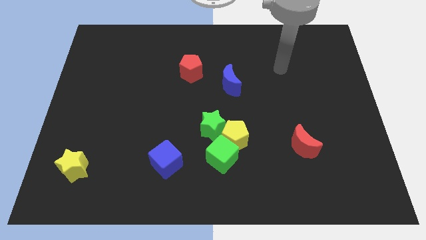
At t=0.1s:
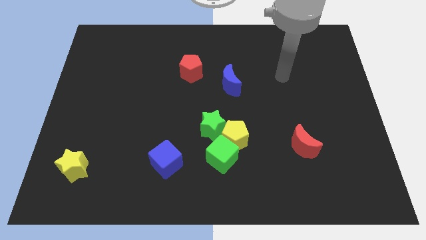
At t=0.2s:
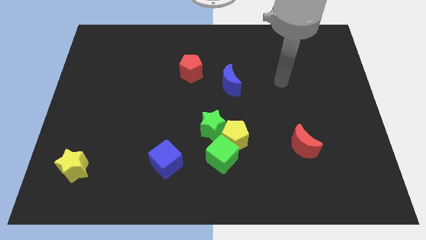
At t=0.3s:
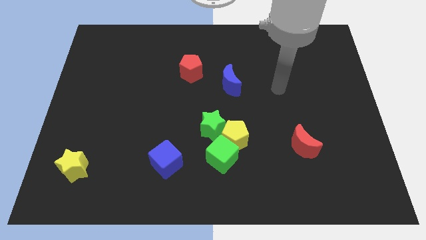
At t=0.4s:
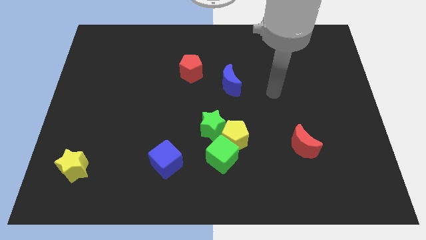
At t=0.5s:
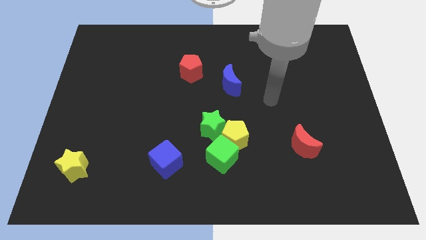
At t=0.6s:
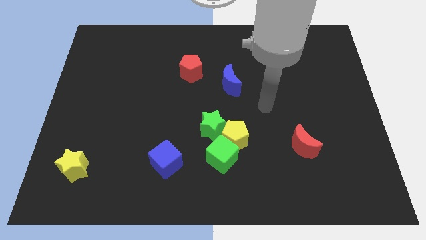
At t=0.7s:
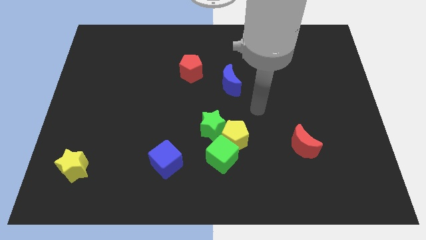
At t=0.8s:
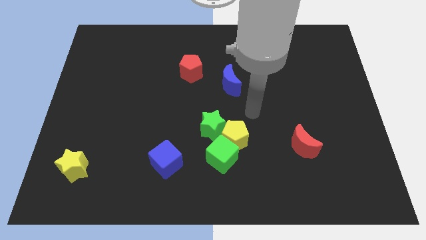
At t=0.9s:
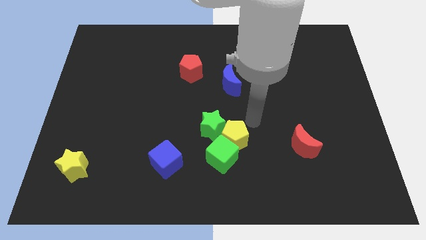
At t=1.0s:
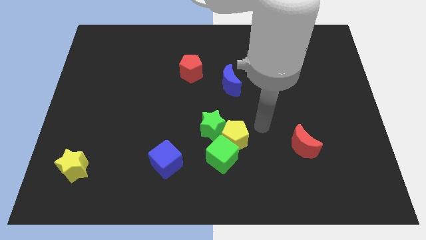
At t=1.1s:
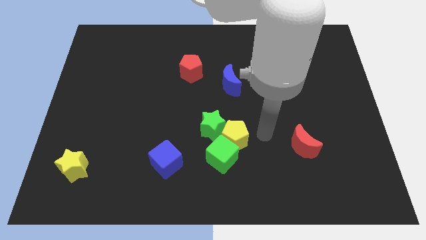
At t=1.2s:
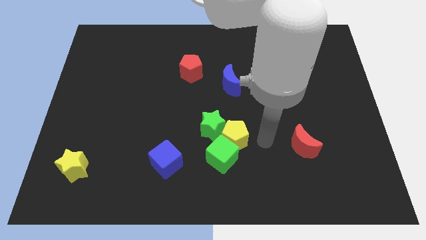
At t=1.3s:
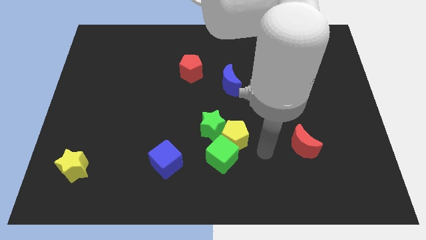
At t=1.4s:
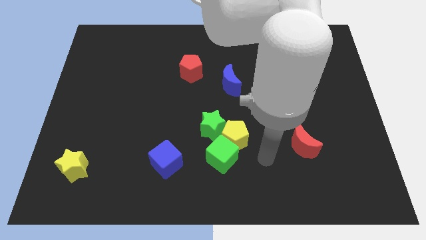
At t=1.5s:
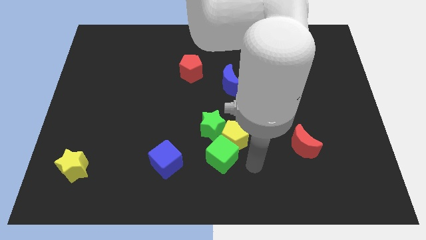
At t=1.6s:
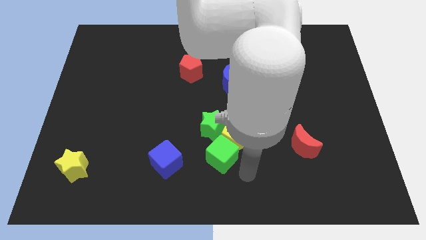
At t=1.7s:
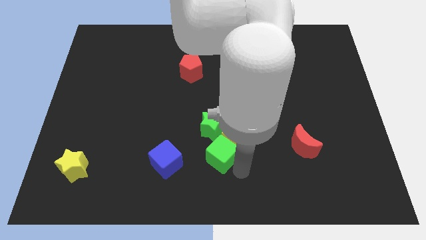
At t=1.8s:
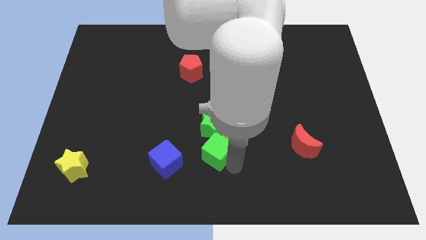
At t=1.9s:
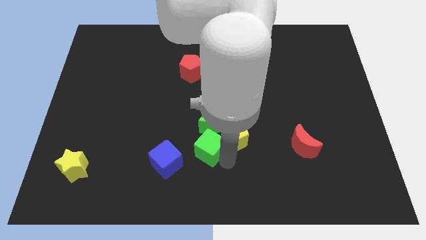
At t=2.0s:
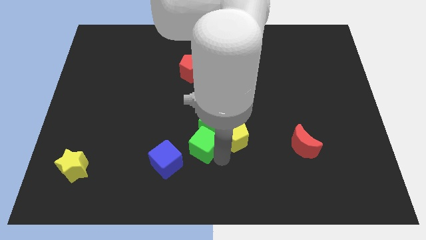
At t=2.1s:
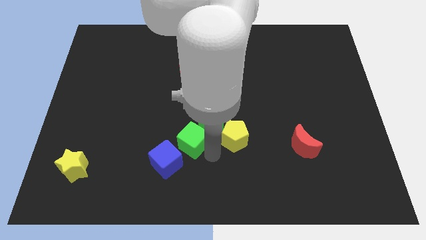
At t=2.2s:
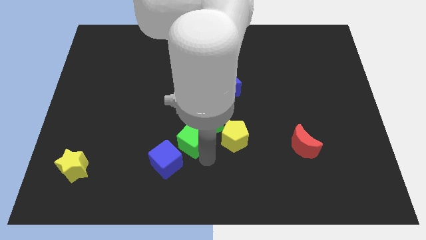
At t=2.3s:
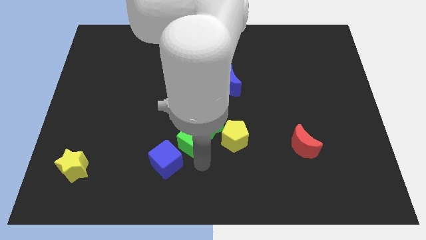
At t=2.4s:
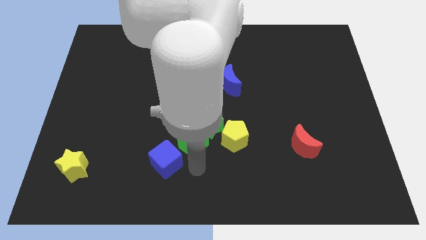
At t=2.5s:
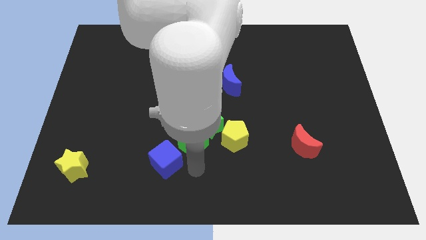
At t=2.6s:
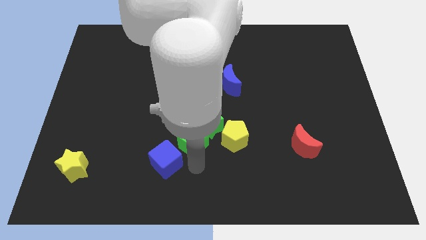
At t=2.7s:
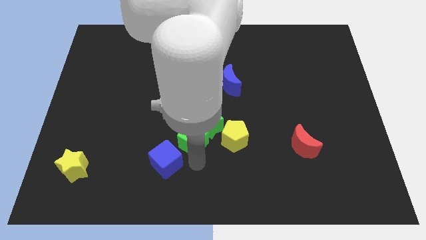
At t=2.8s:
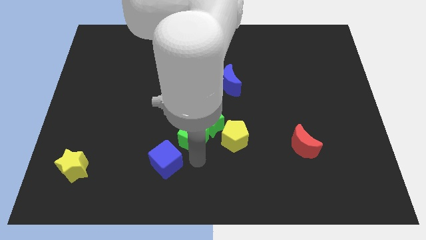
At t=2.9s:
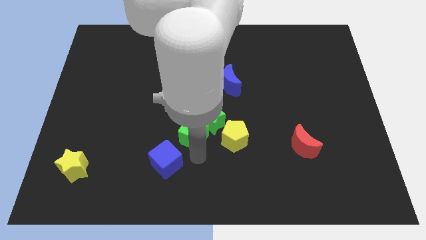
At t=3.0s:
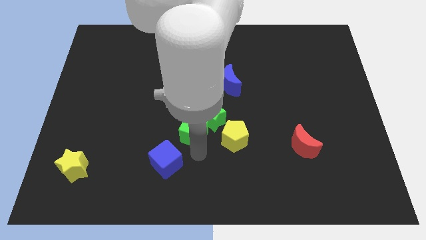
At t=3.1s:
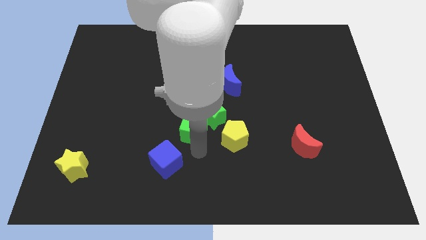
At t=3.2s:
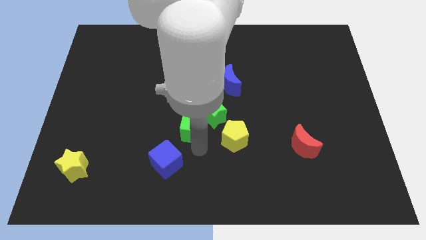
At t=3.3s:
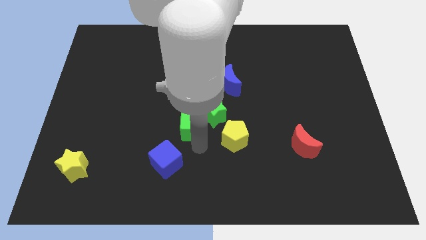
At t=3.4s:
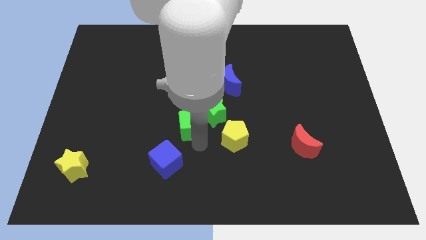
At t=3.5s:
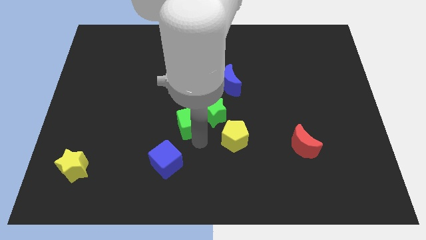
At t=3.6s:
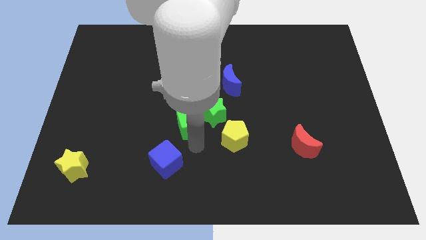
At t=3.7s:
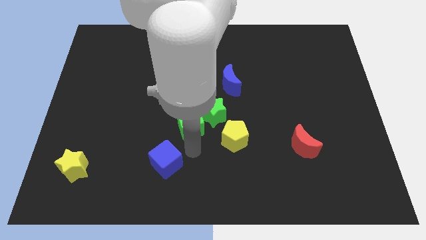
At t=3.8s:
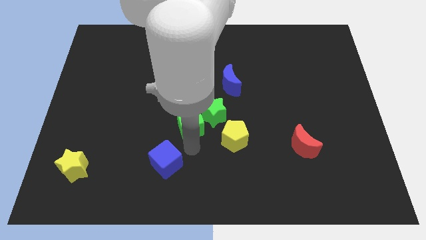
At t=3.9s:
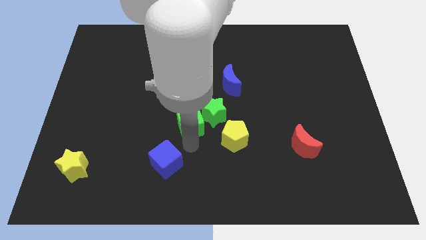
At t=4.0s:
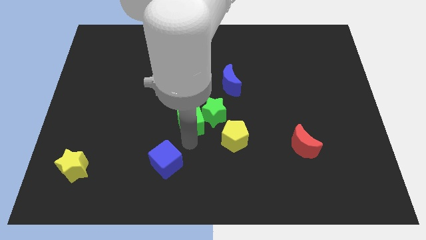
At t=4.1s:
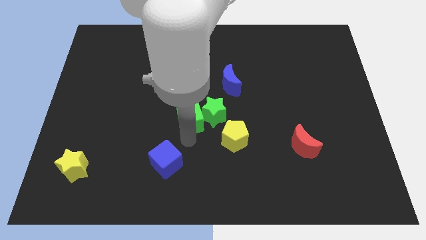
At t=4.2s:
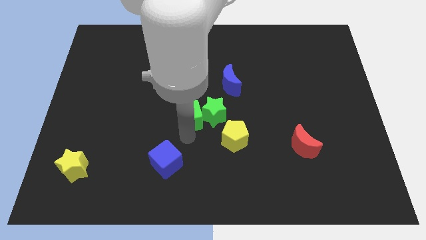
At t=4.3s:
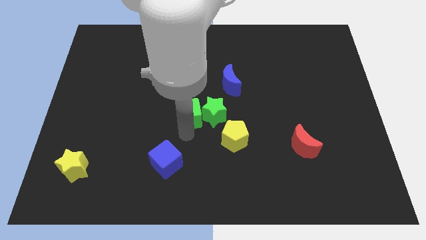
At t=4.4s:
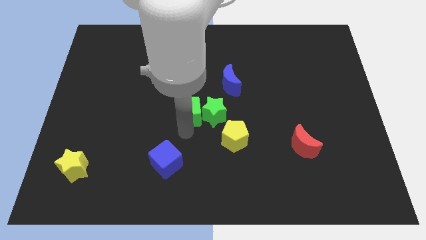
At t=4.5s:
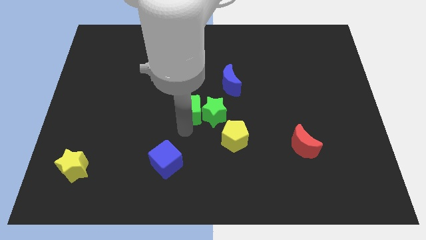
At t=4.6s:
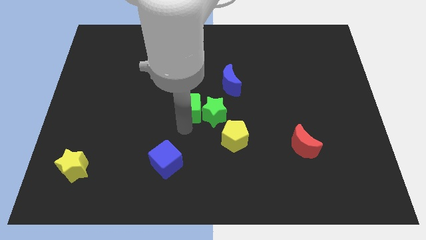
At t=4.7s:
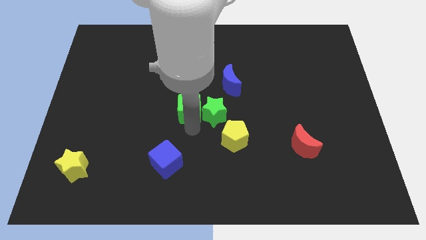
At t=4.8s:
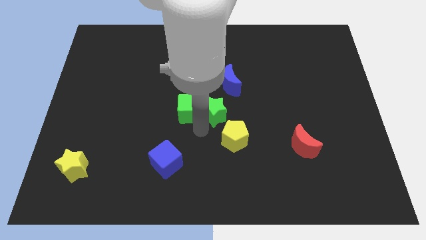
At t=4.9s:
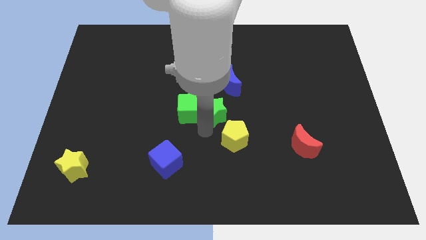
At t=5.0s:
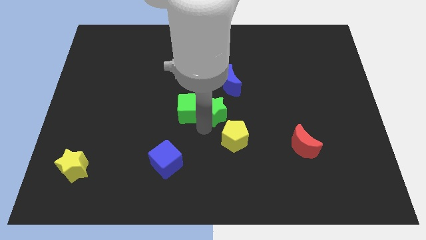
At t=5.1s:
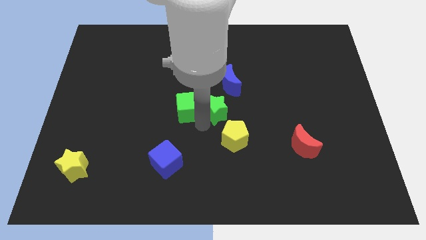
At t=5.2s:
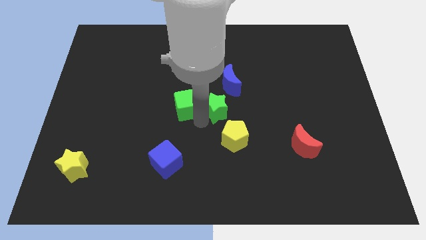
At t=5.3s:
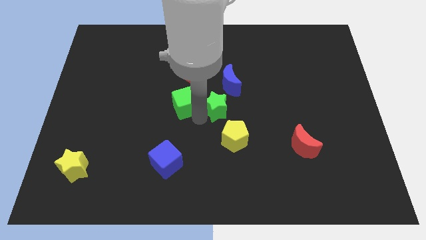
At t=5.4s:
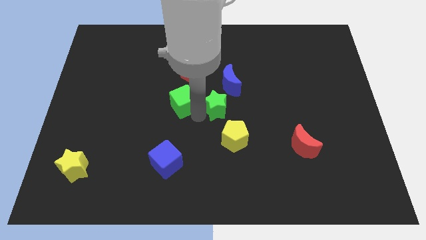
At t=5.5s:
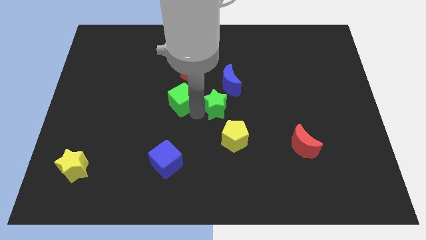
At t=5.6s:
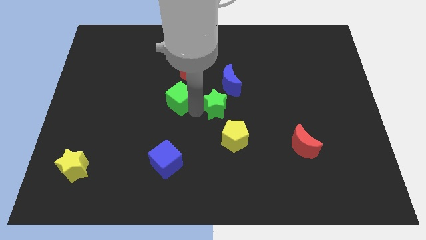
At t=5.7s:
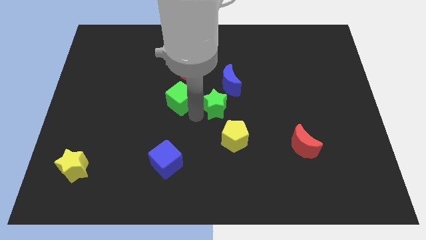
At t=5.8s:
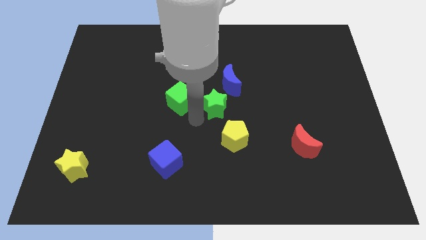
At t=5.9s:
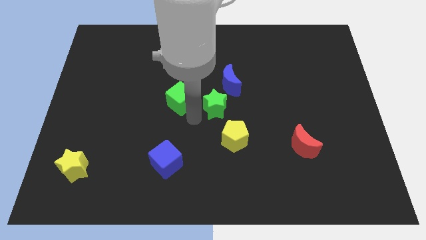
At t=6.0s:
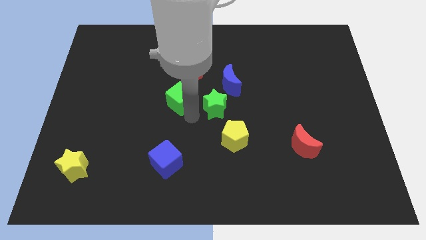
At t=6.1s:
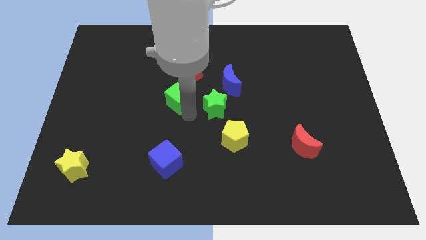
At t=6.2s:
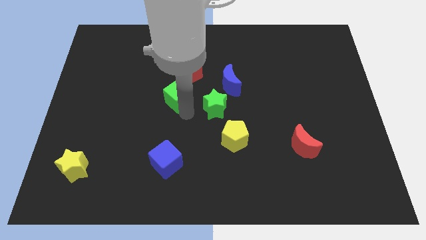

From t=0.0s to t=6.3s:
push the green cube to the bottom left side of the red pentagon

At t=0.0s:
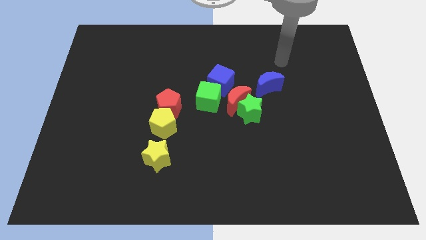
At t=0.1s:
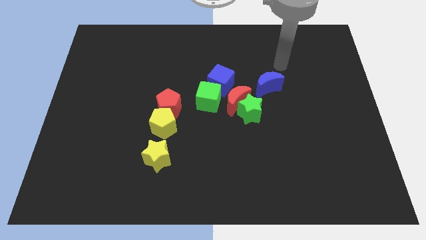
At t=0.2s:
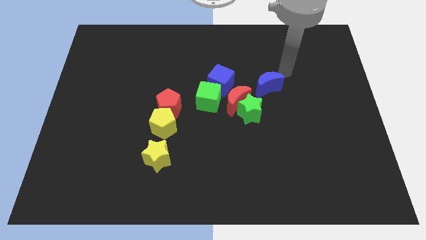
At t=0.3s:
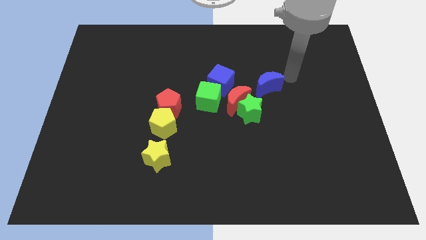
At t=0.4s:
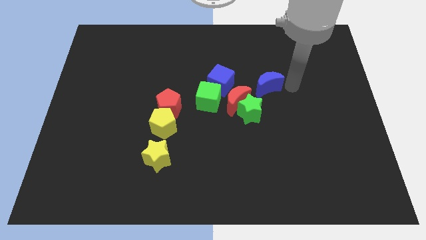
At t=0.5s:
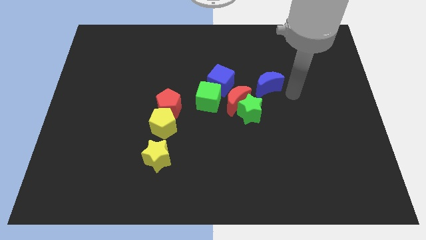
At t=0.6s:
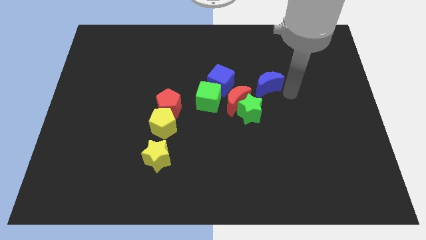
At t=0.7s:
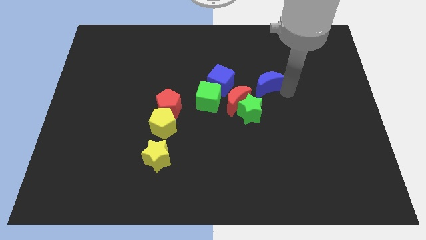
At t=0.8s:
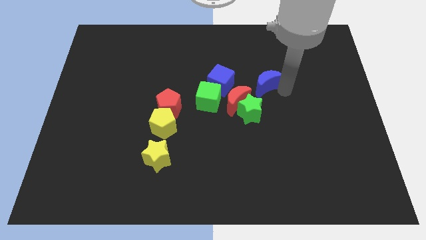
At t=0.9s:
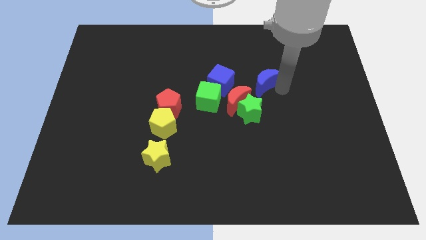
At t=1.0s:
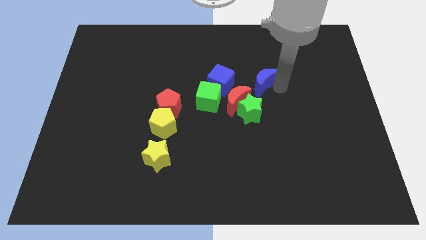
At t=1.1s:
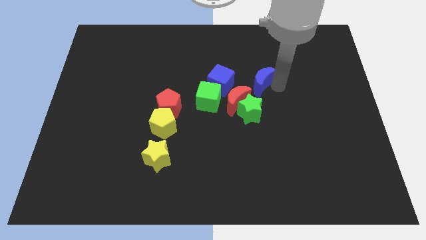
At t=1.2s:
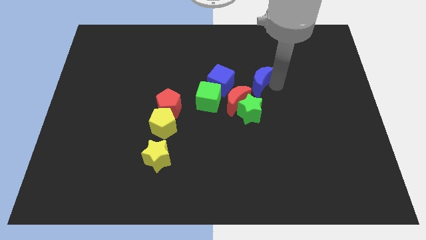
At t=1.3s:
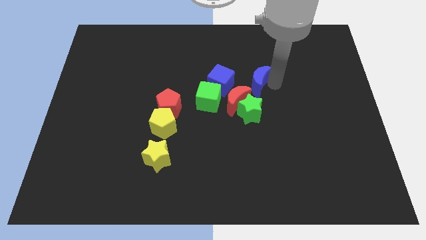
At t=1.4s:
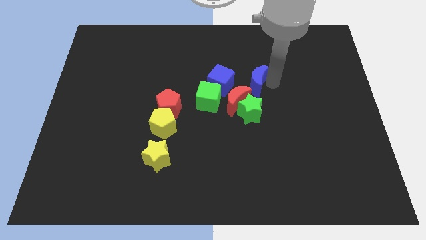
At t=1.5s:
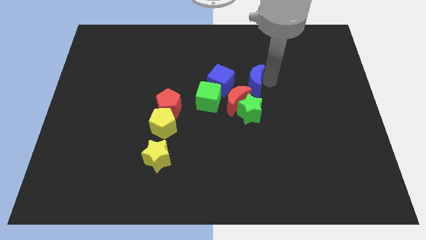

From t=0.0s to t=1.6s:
slide the blue moon to the top of the red moon
